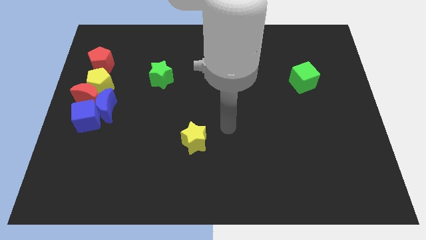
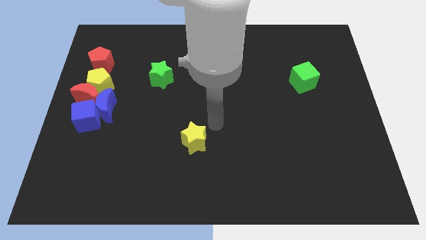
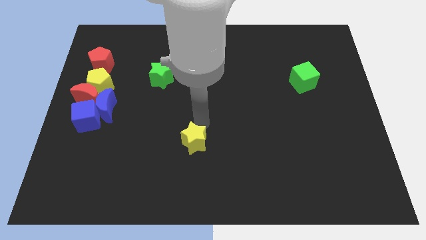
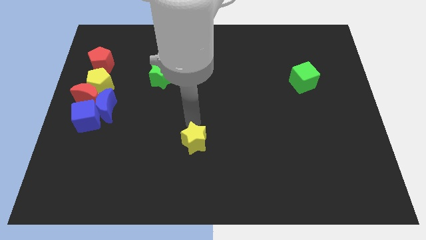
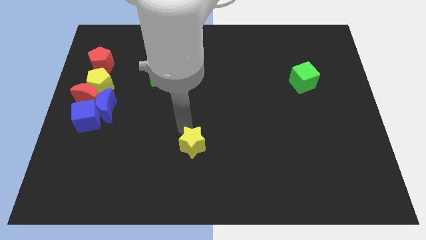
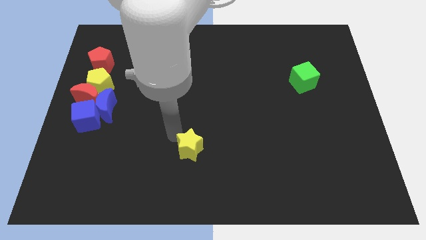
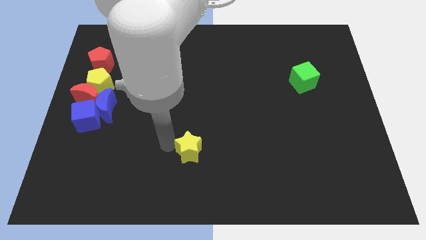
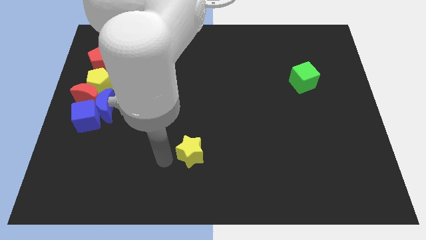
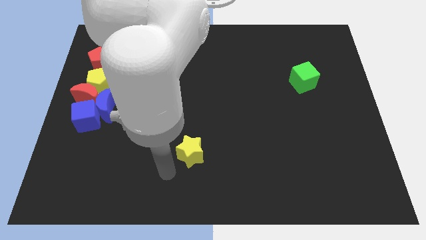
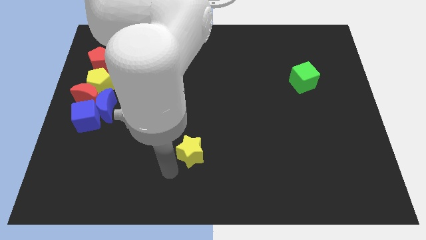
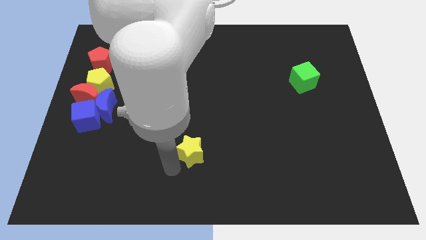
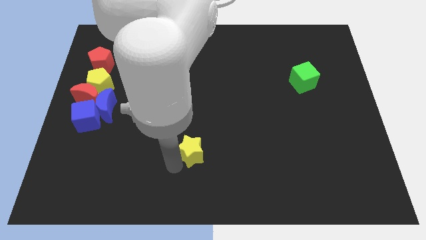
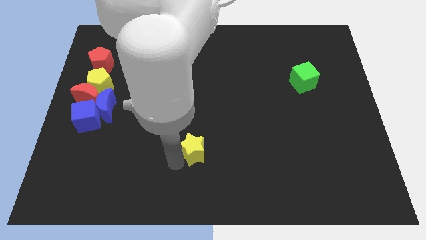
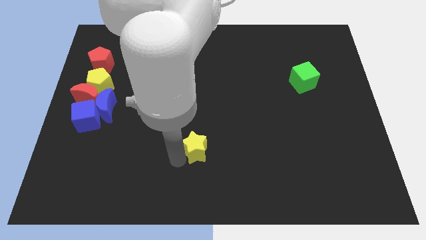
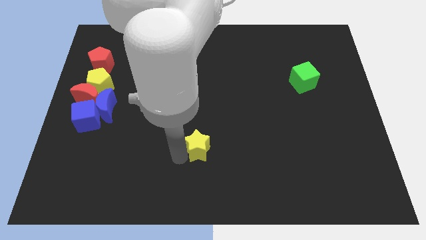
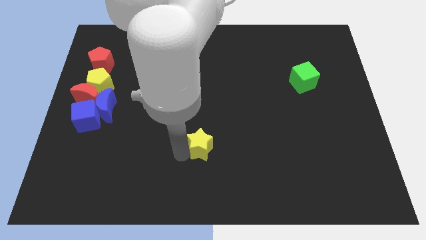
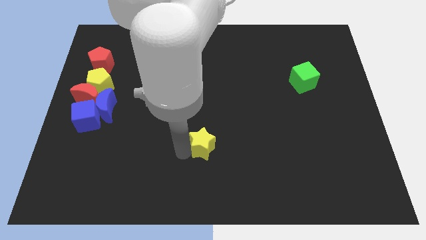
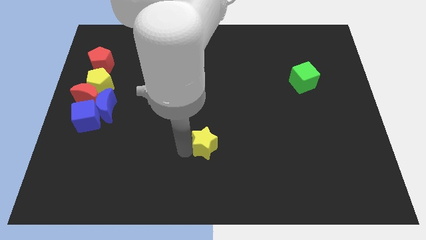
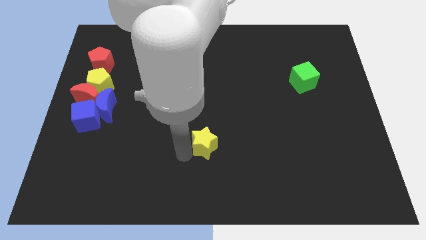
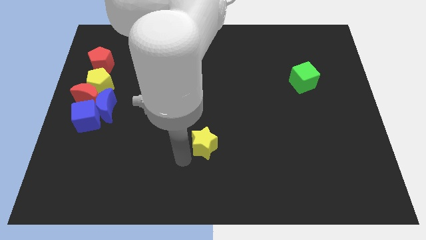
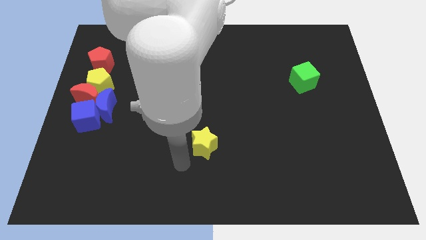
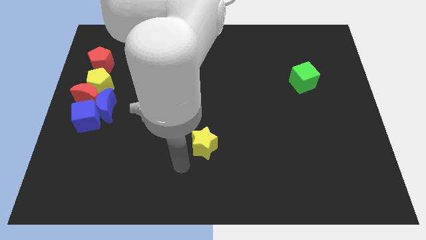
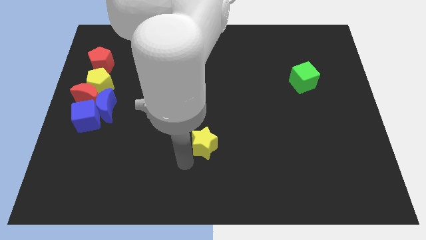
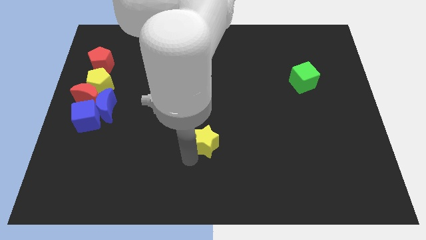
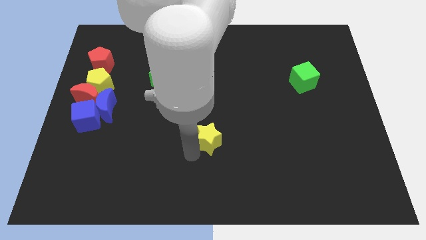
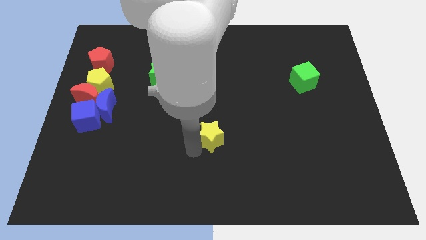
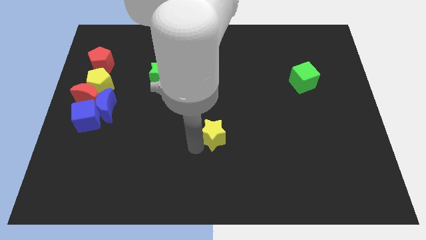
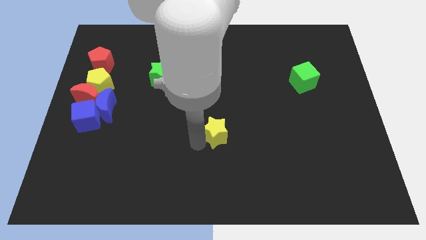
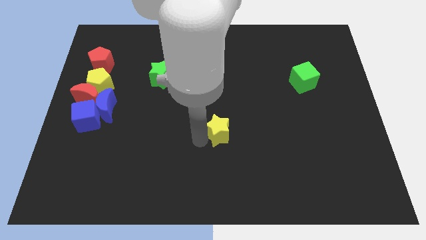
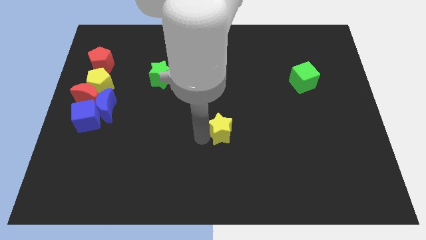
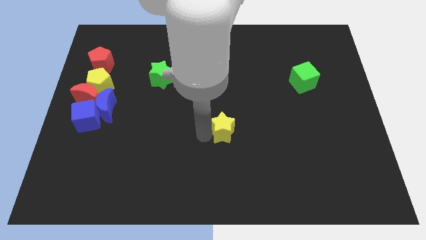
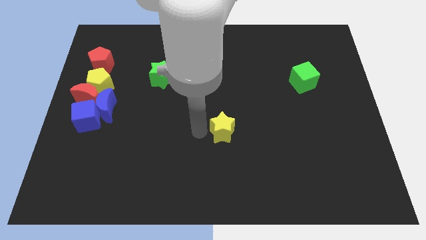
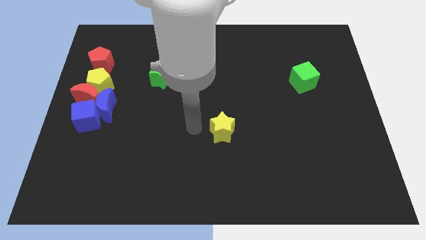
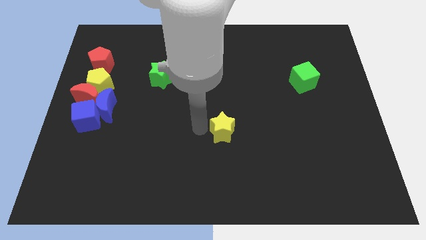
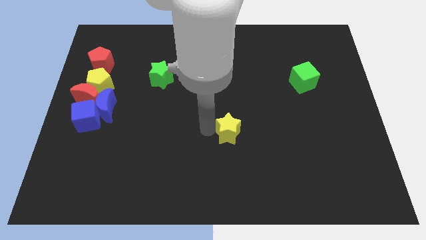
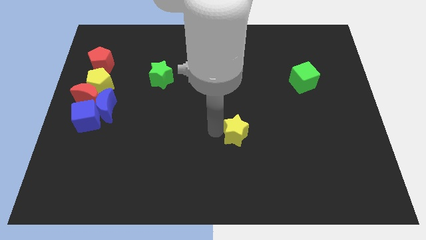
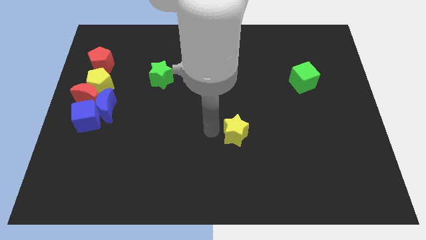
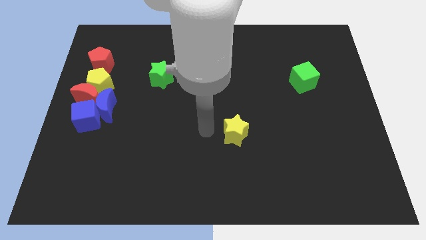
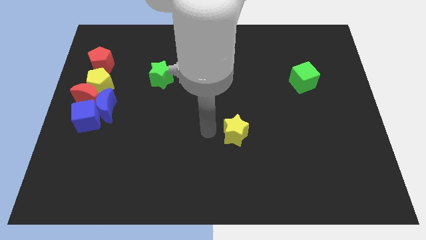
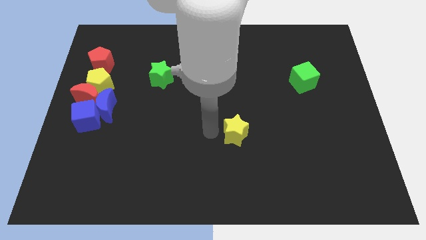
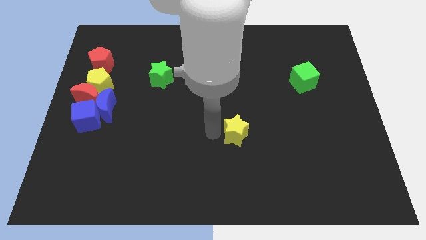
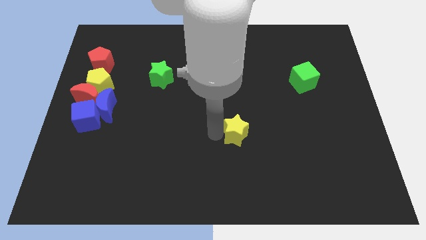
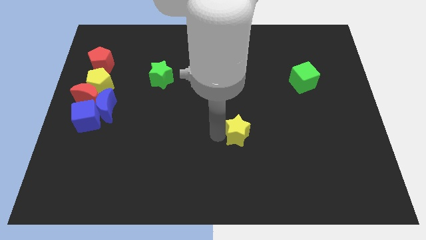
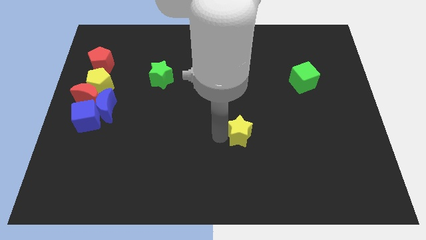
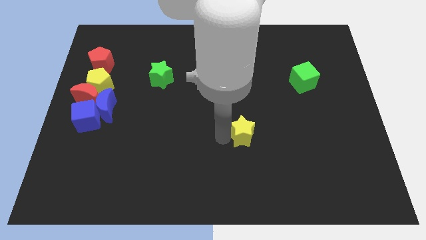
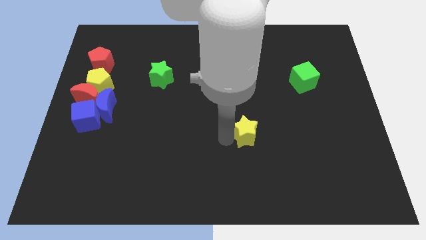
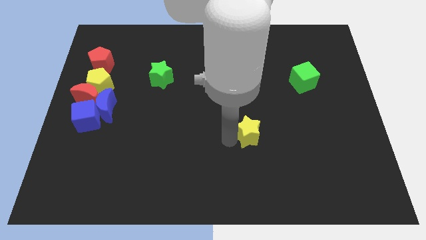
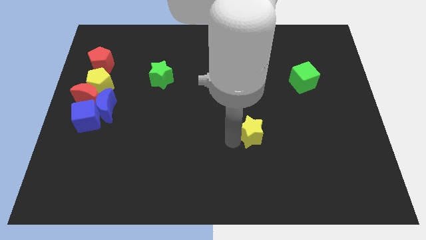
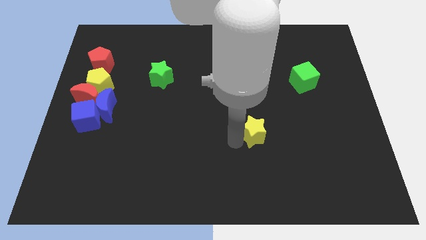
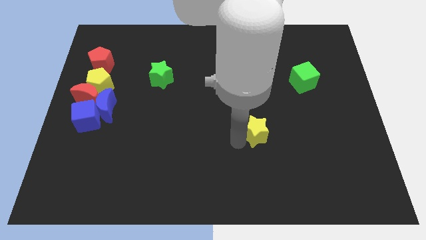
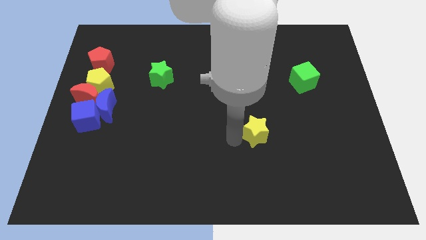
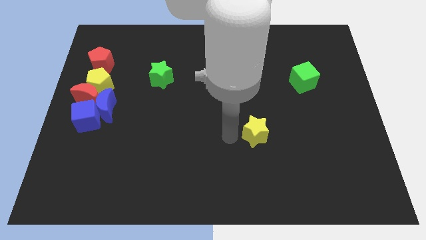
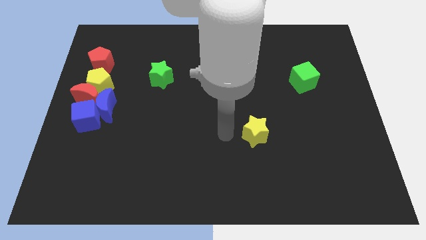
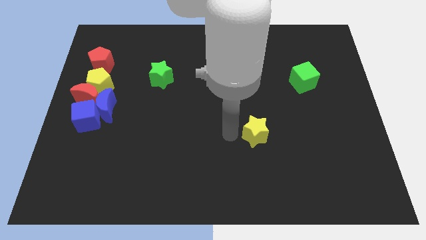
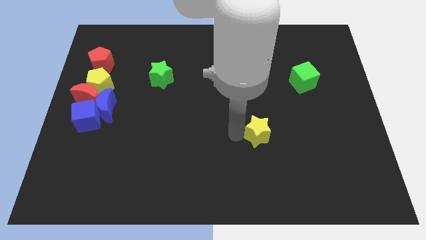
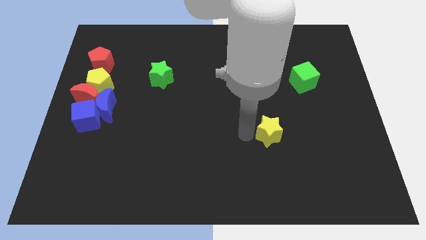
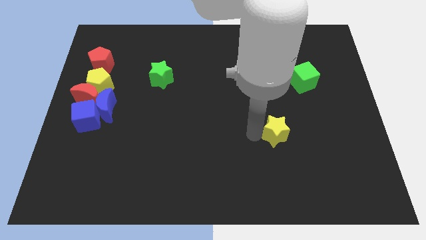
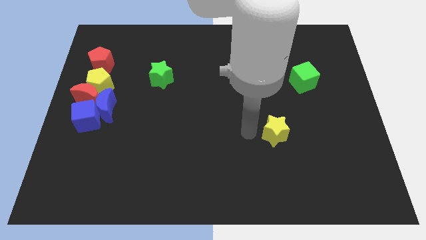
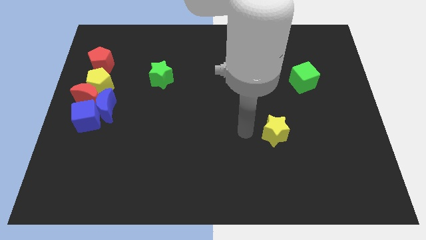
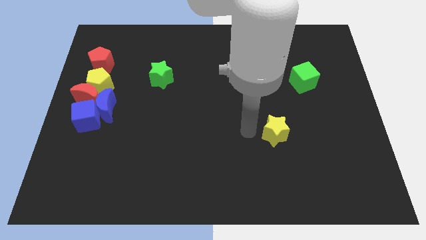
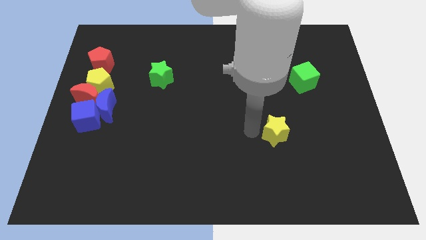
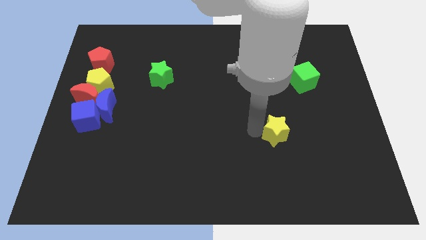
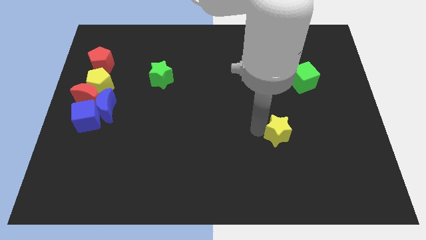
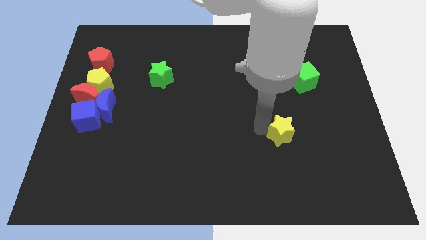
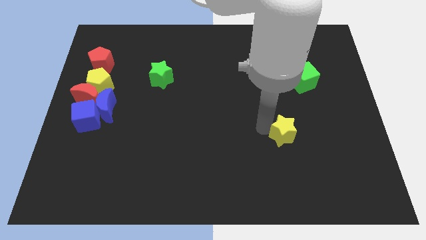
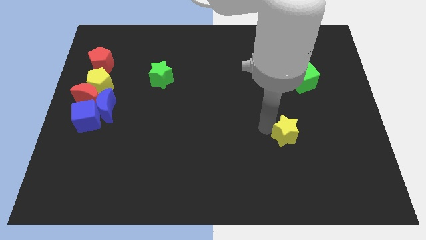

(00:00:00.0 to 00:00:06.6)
move the yellow star right

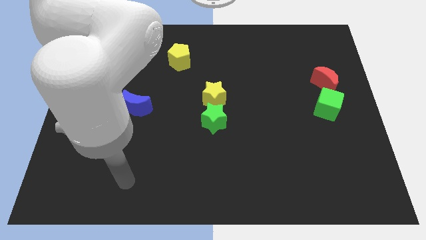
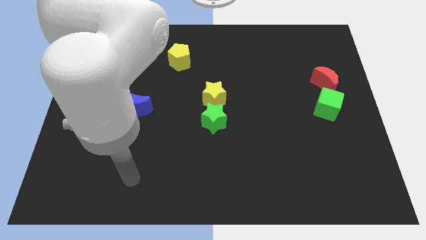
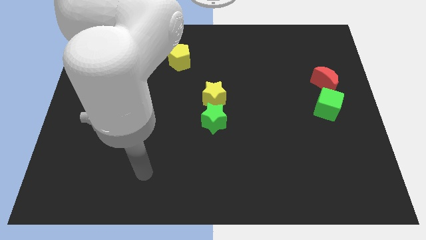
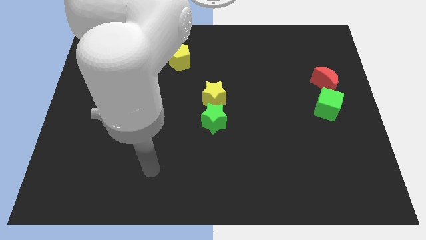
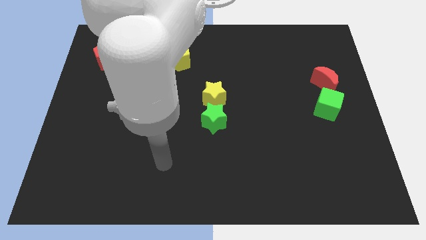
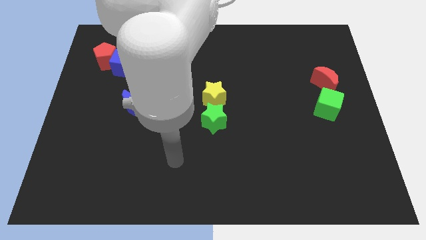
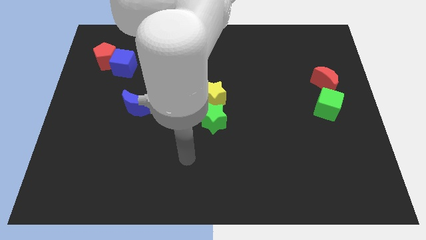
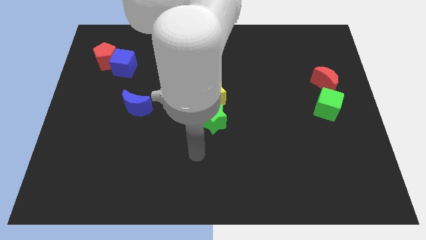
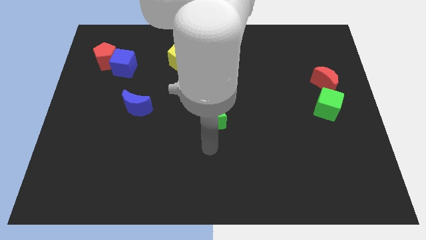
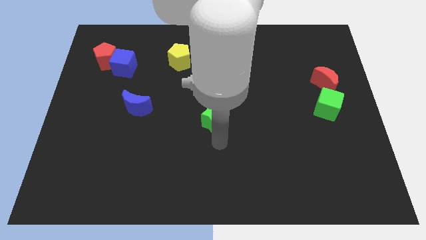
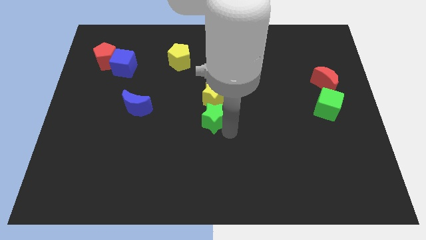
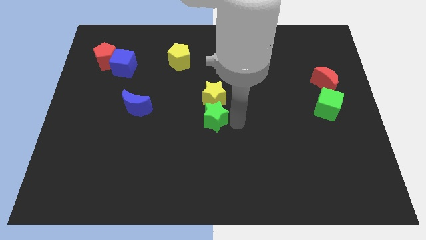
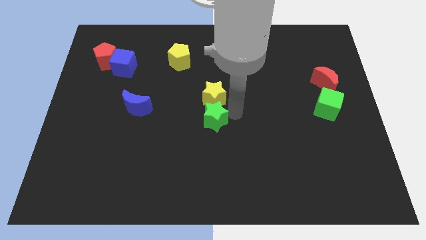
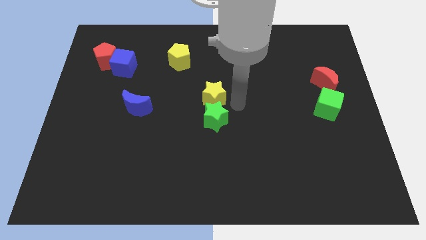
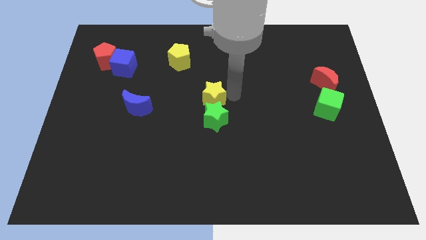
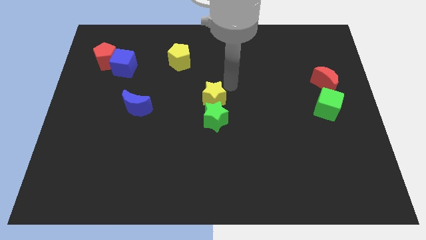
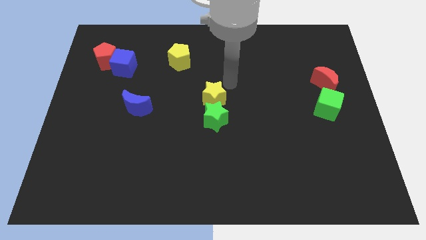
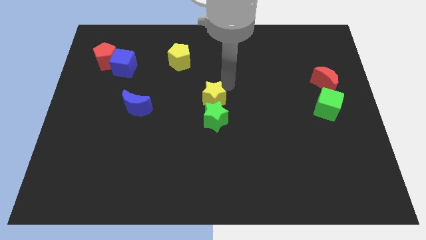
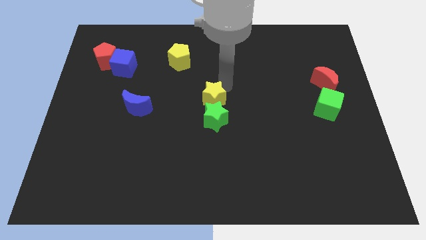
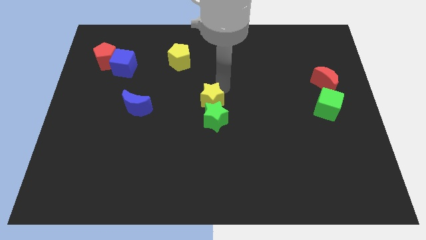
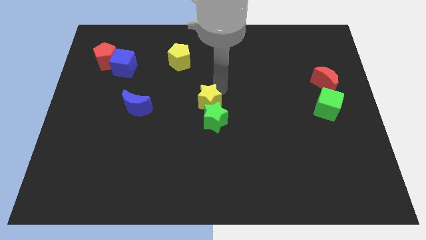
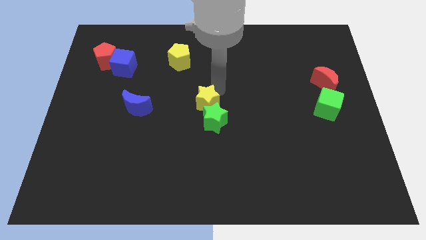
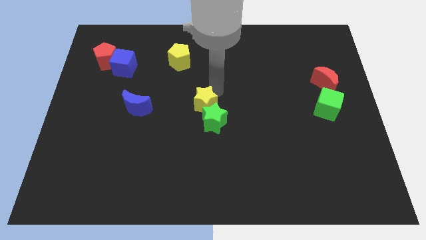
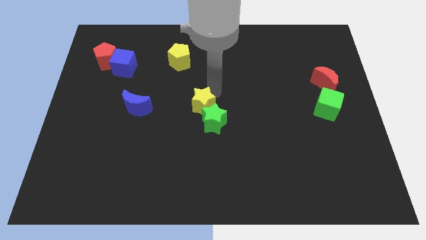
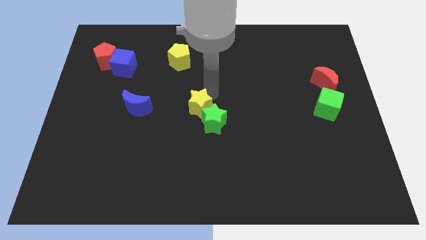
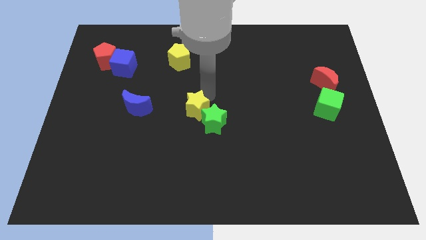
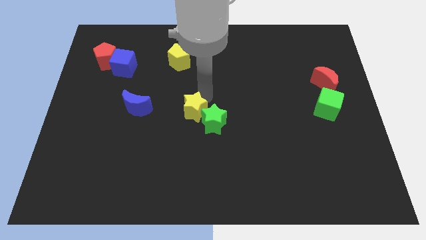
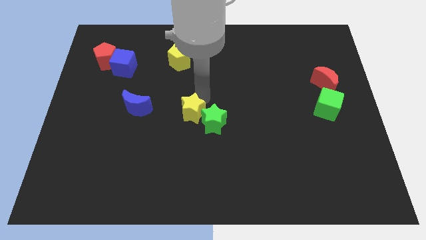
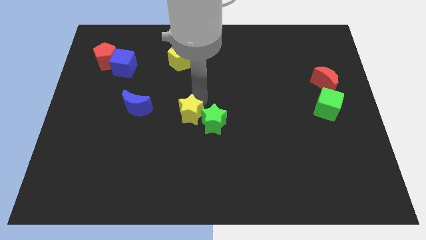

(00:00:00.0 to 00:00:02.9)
move the yellow star diagonally down and left somewhat
